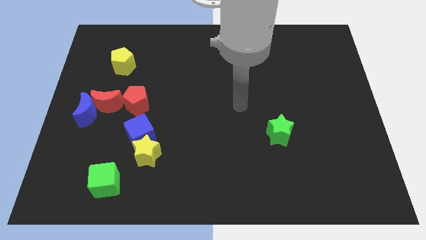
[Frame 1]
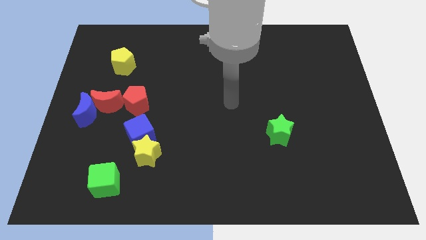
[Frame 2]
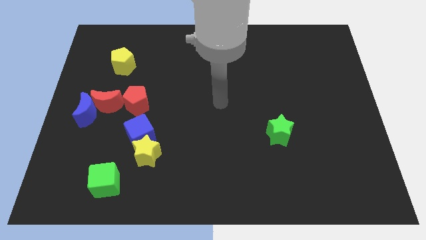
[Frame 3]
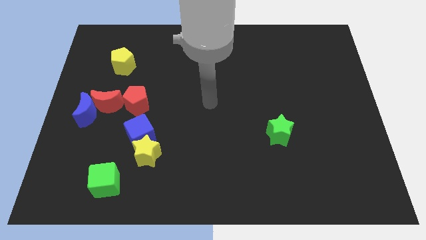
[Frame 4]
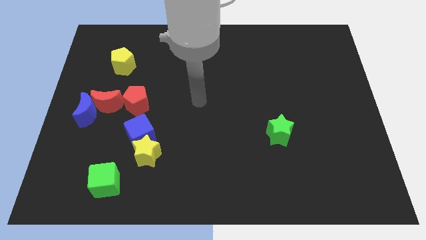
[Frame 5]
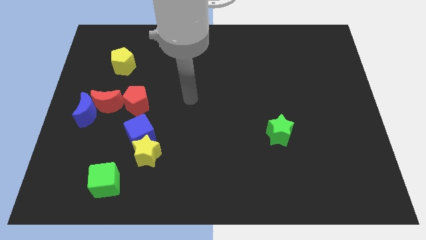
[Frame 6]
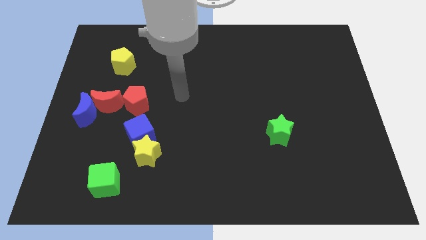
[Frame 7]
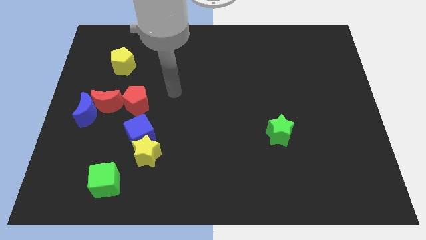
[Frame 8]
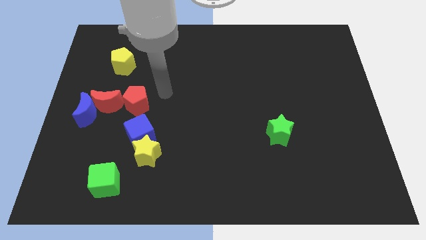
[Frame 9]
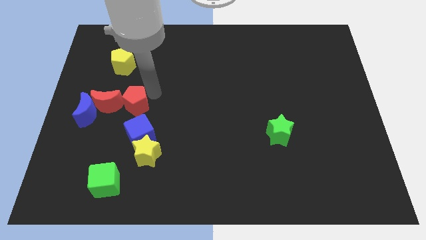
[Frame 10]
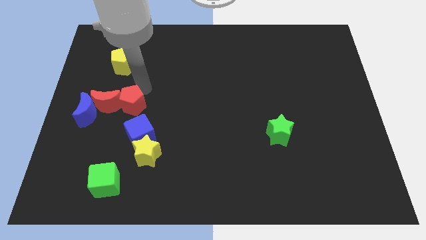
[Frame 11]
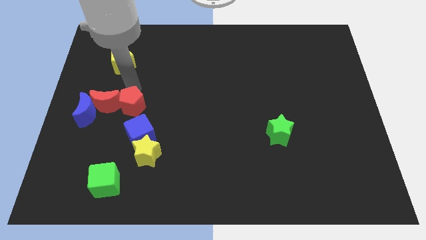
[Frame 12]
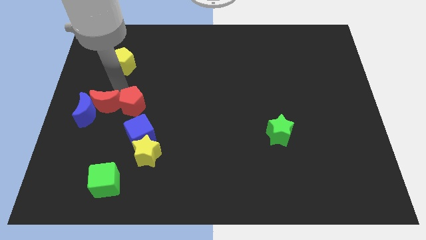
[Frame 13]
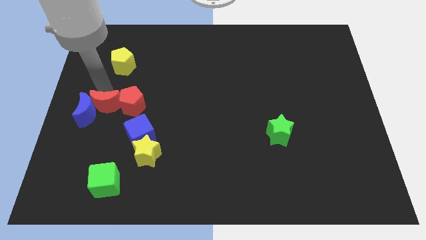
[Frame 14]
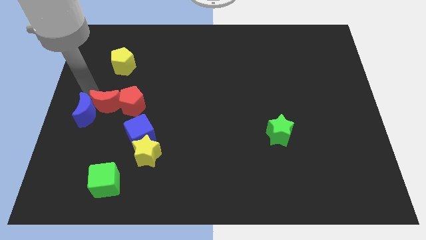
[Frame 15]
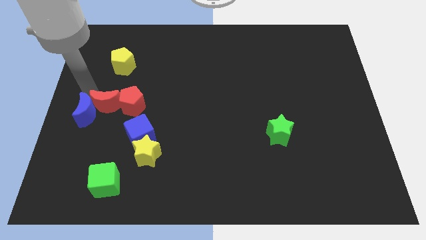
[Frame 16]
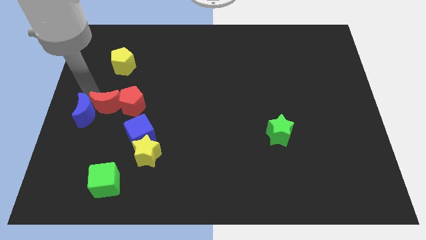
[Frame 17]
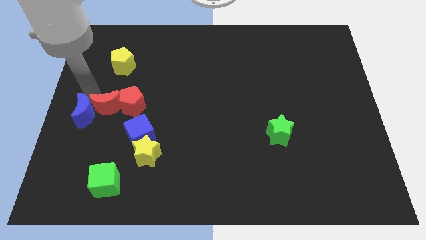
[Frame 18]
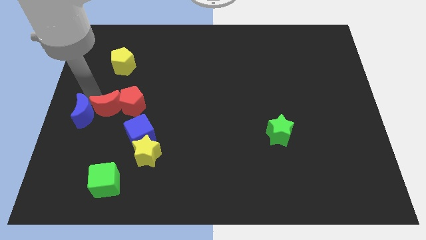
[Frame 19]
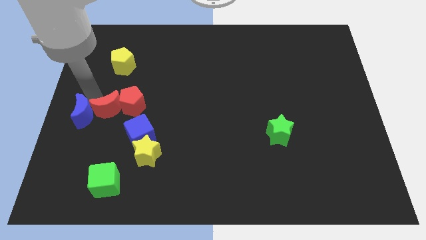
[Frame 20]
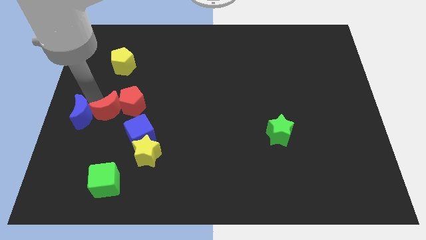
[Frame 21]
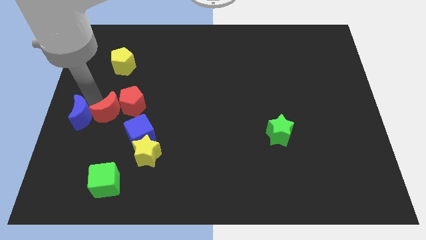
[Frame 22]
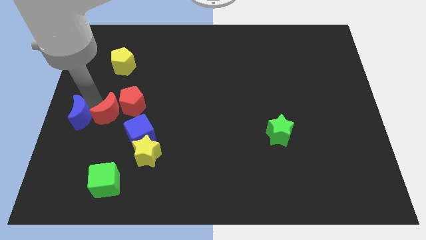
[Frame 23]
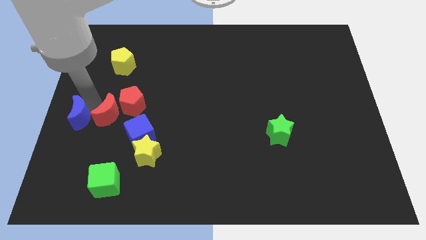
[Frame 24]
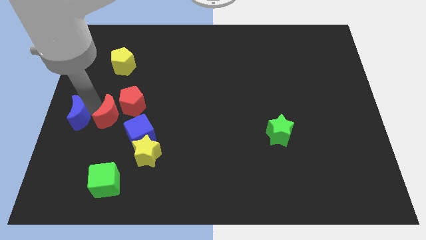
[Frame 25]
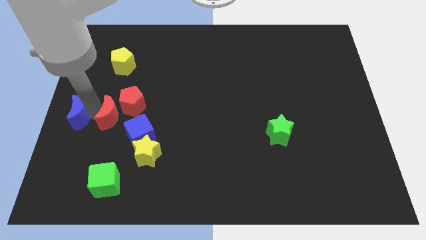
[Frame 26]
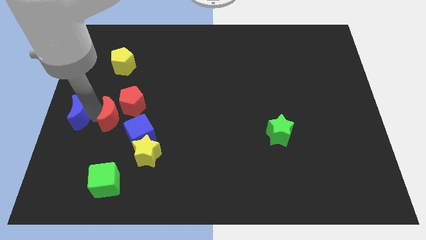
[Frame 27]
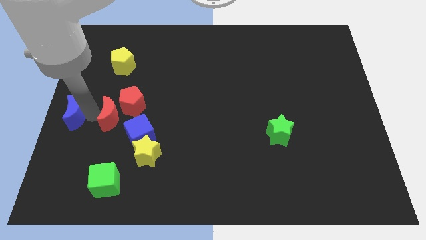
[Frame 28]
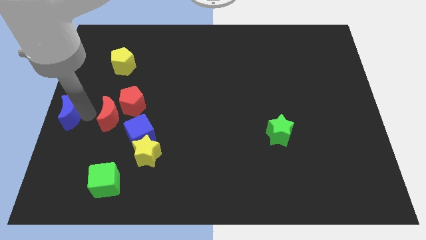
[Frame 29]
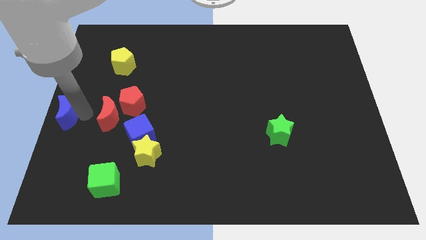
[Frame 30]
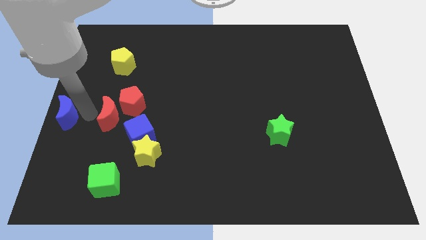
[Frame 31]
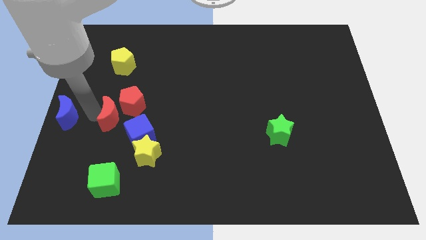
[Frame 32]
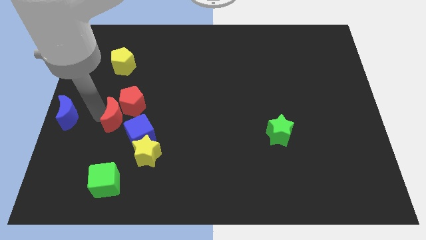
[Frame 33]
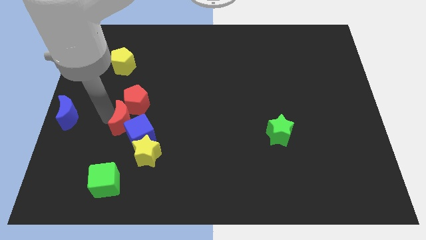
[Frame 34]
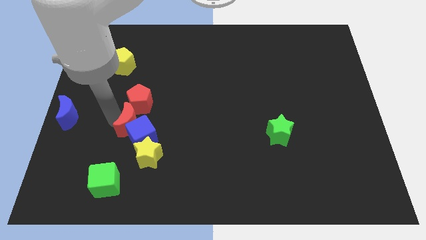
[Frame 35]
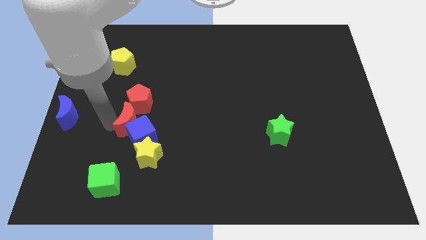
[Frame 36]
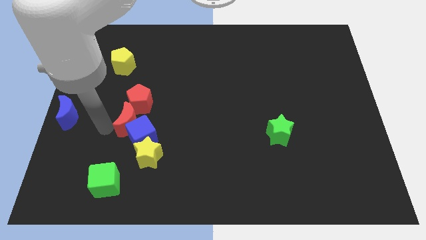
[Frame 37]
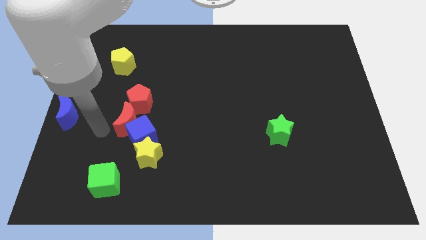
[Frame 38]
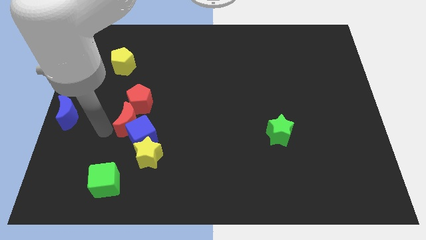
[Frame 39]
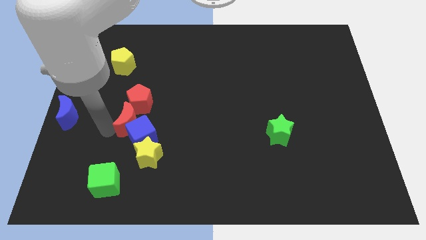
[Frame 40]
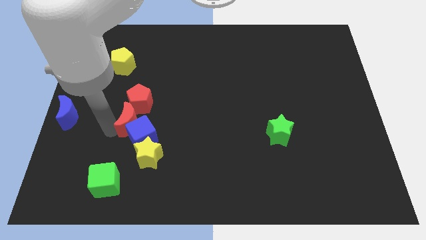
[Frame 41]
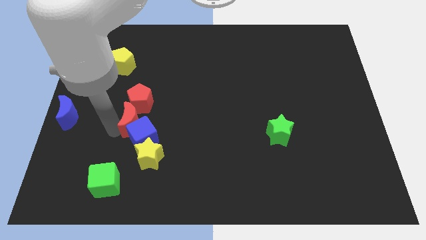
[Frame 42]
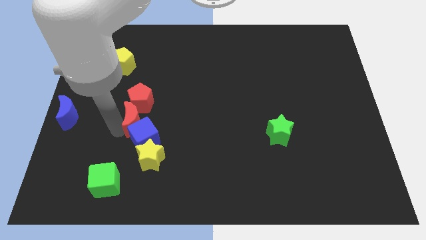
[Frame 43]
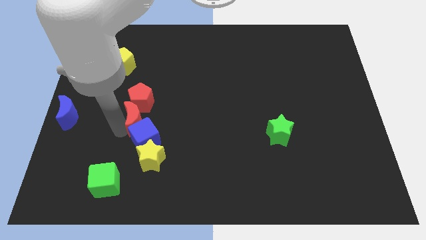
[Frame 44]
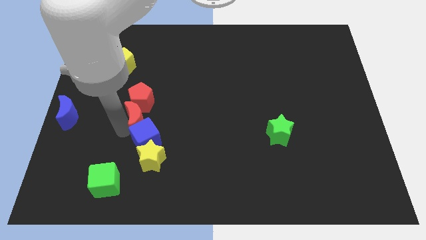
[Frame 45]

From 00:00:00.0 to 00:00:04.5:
move the red moon right a bit

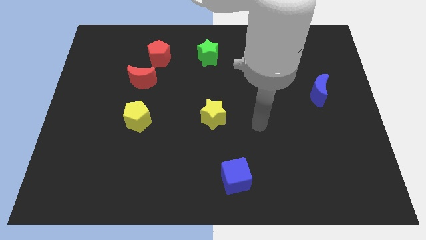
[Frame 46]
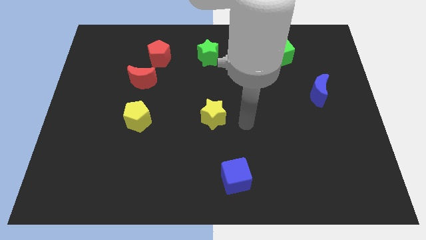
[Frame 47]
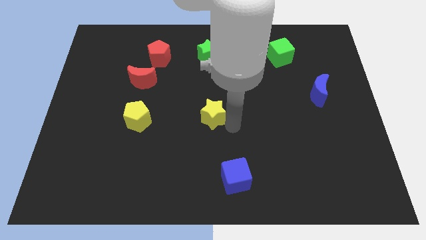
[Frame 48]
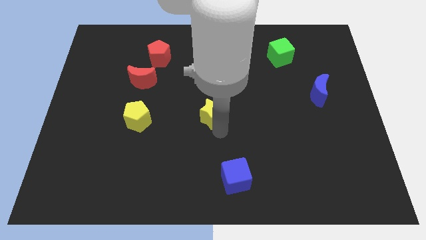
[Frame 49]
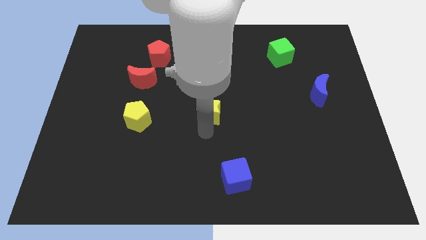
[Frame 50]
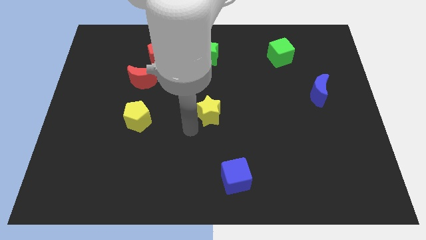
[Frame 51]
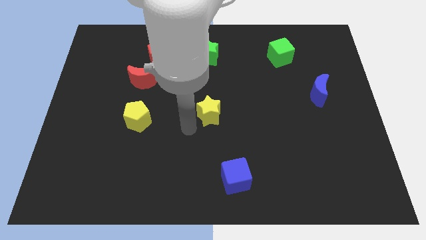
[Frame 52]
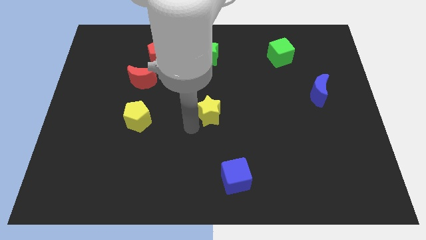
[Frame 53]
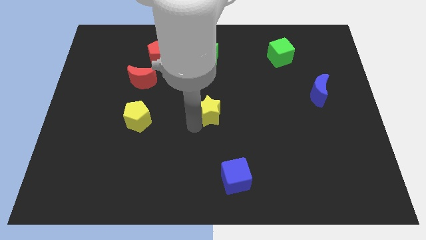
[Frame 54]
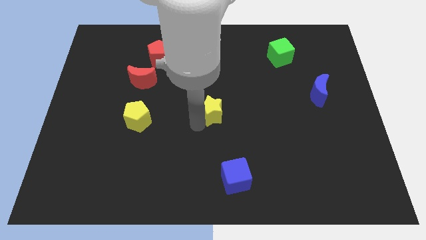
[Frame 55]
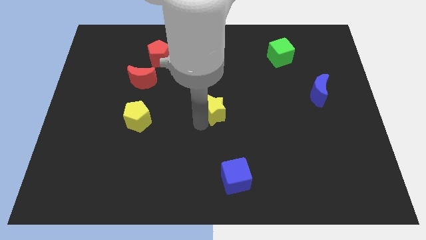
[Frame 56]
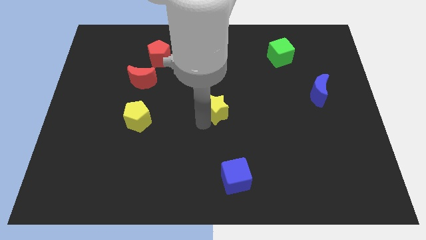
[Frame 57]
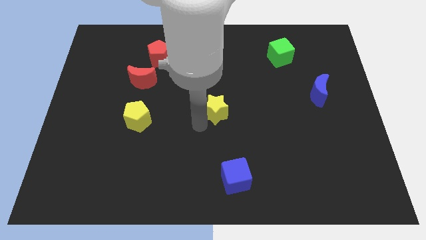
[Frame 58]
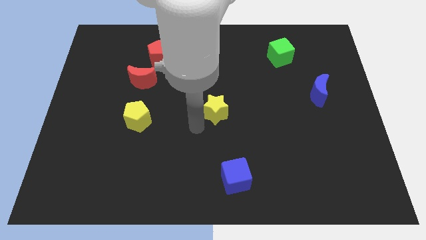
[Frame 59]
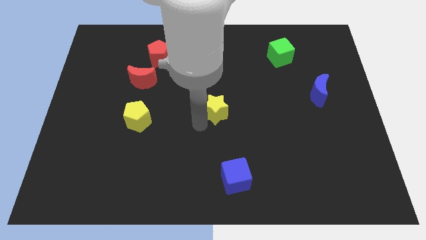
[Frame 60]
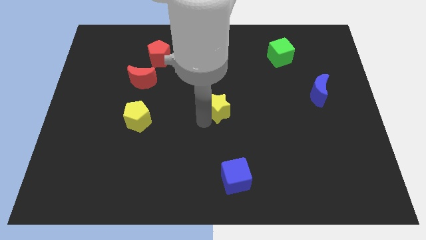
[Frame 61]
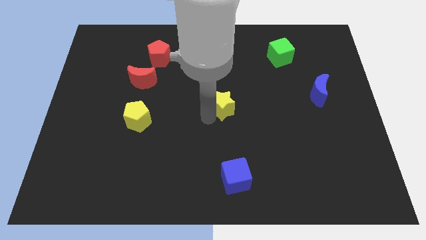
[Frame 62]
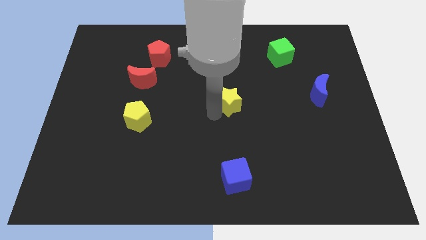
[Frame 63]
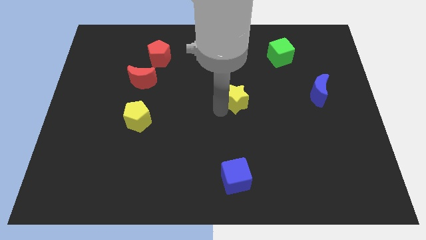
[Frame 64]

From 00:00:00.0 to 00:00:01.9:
slightly slide the yellow star diagonally upwards and to the right

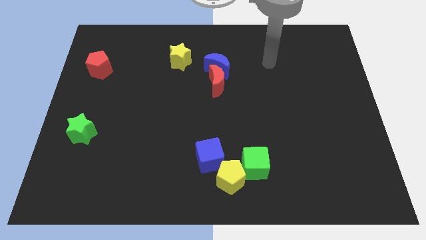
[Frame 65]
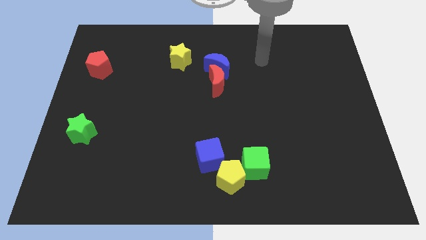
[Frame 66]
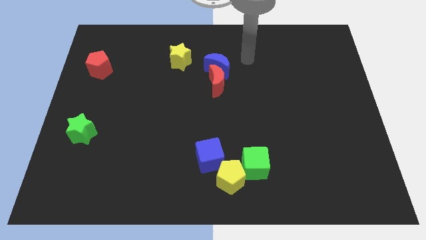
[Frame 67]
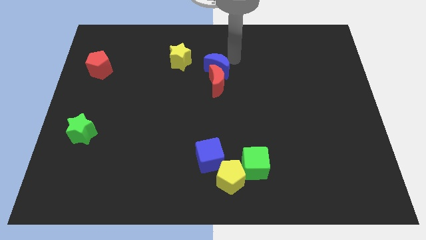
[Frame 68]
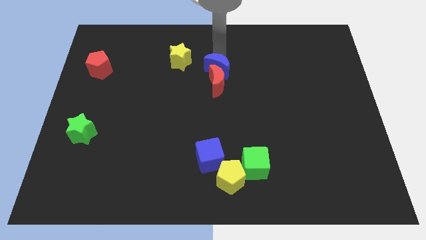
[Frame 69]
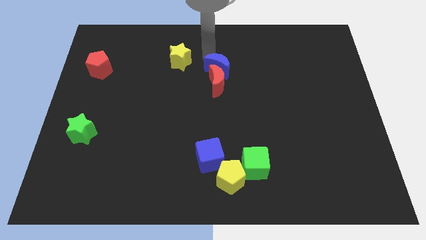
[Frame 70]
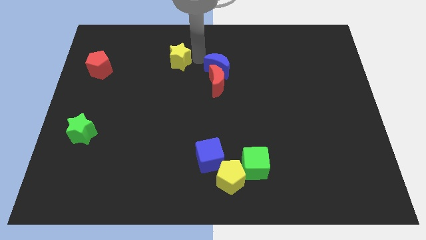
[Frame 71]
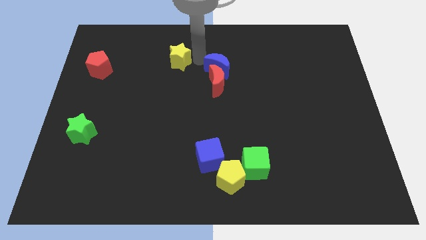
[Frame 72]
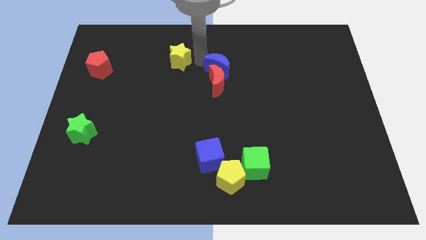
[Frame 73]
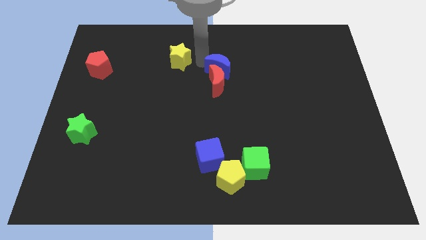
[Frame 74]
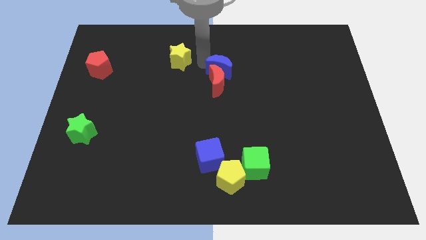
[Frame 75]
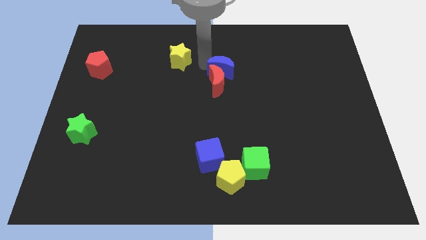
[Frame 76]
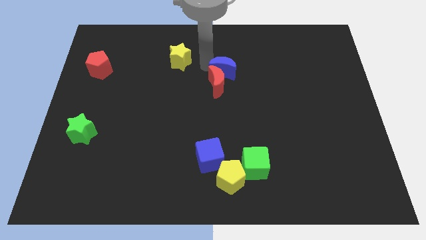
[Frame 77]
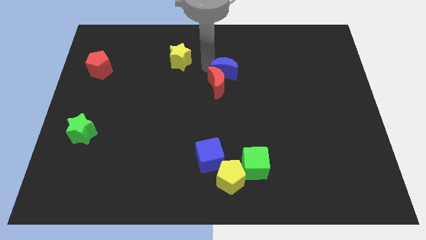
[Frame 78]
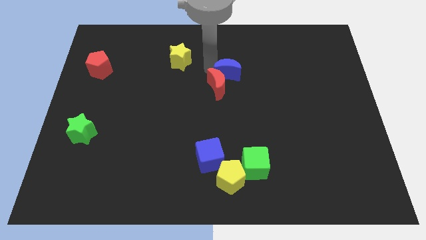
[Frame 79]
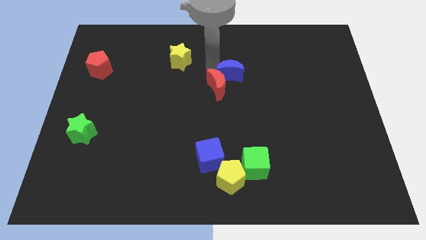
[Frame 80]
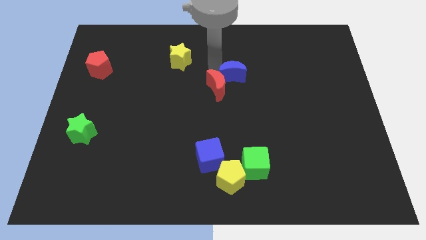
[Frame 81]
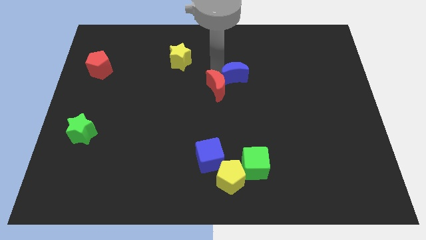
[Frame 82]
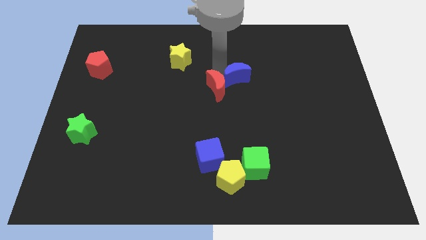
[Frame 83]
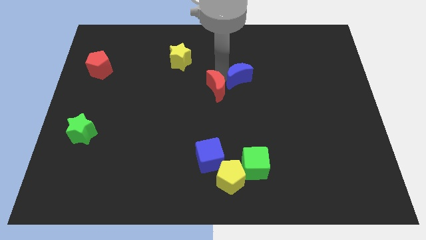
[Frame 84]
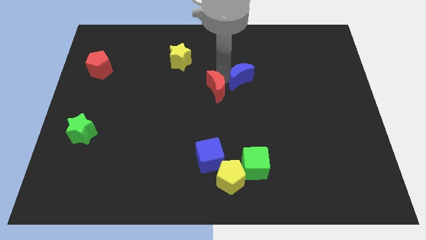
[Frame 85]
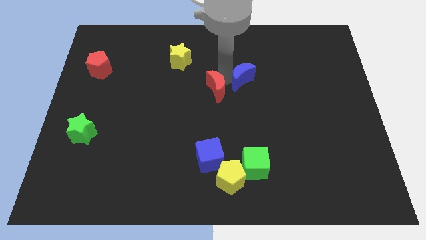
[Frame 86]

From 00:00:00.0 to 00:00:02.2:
move the blue moon down and right a bit

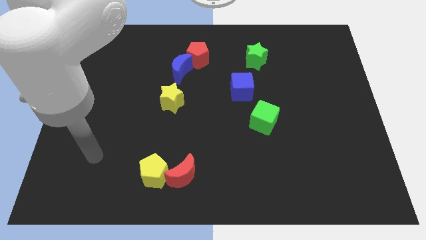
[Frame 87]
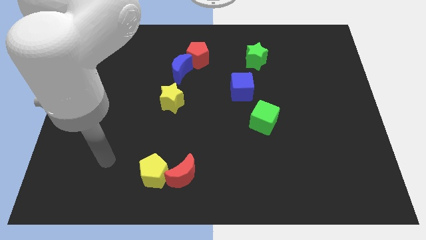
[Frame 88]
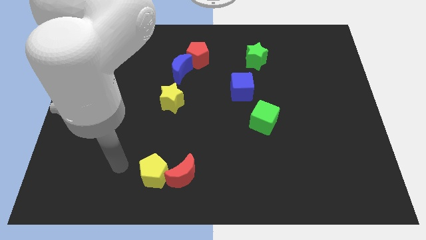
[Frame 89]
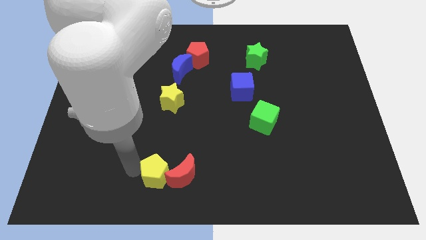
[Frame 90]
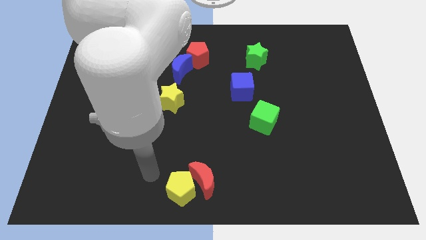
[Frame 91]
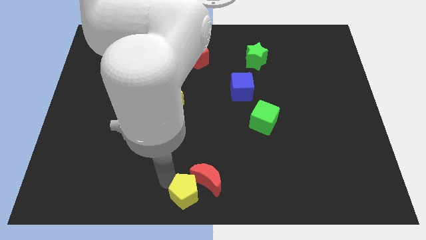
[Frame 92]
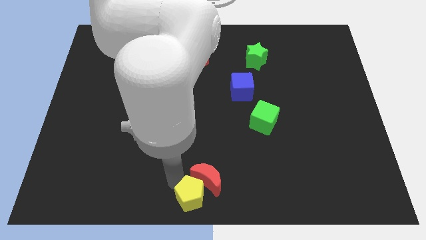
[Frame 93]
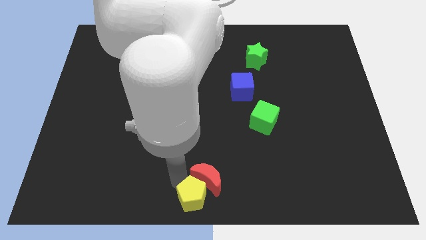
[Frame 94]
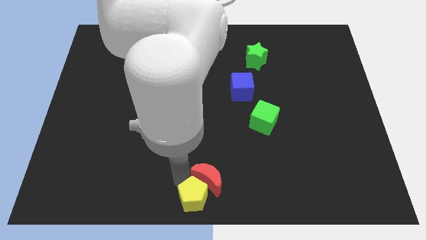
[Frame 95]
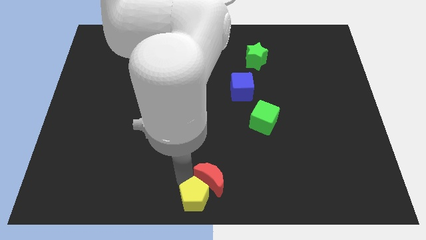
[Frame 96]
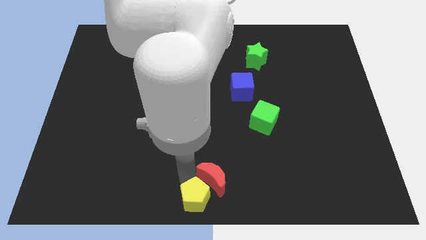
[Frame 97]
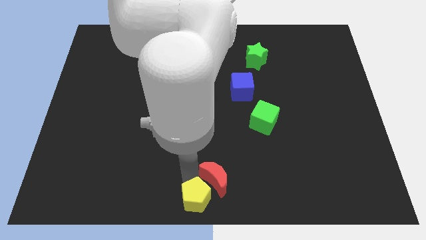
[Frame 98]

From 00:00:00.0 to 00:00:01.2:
slightly move the red moon right
